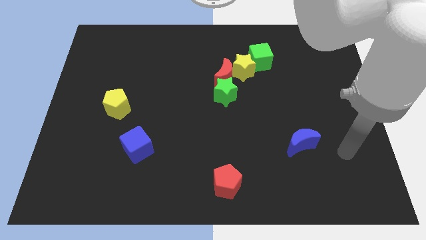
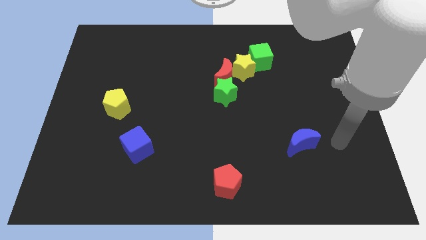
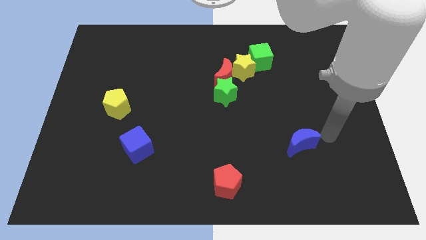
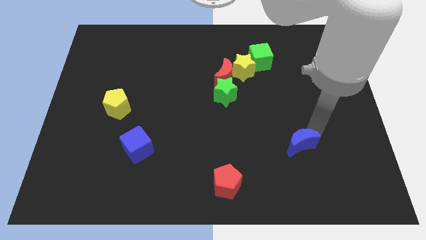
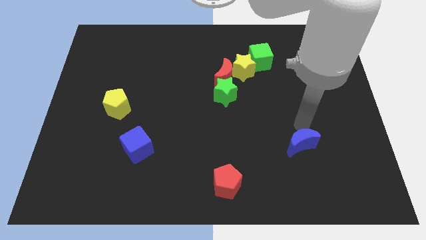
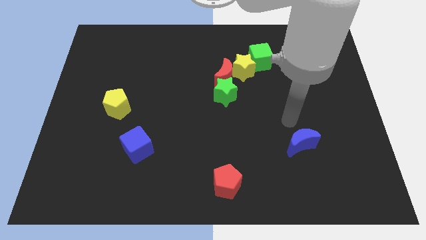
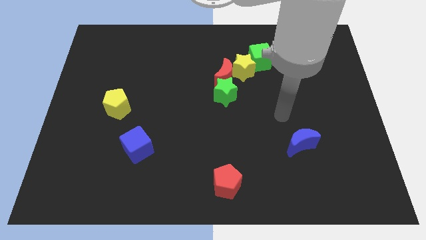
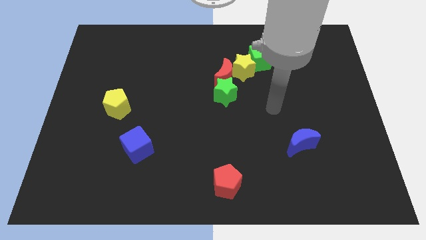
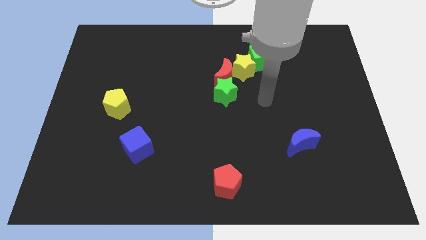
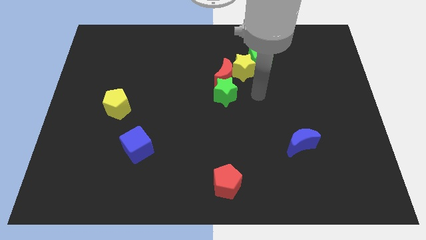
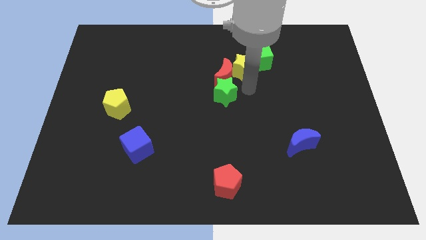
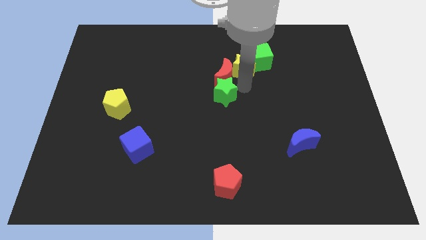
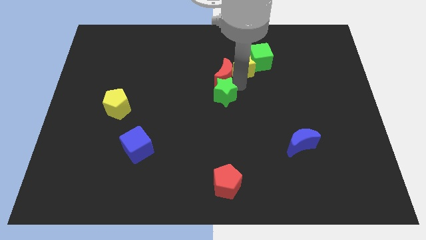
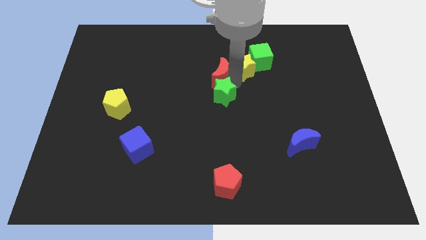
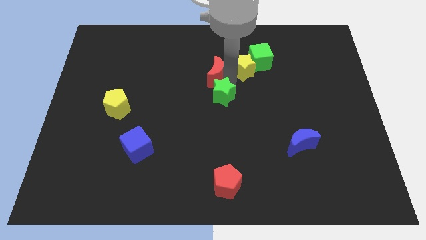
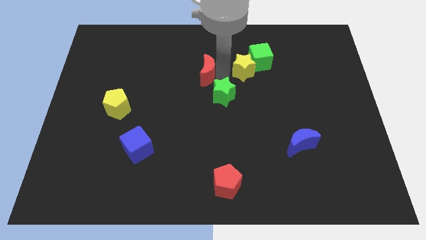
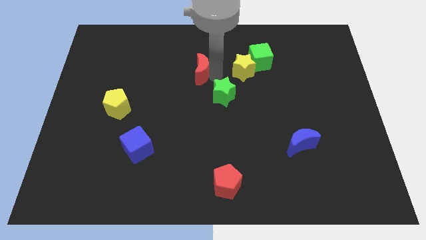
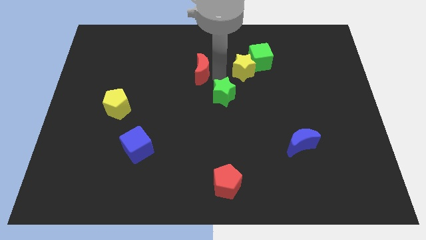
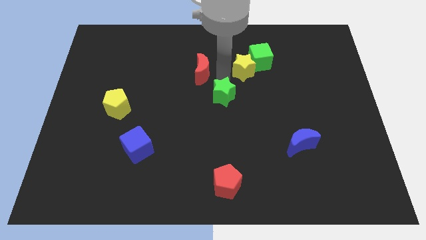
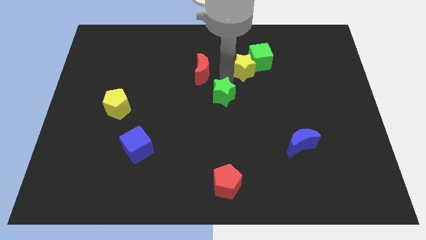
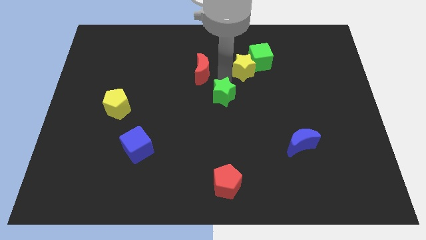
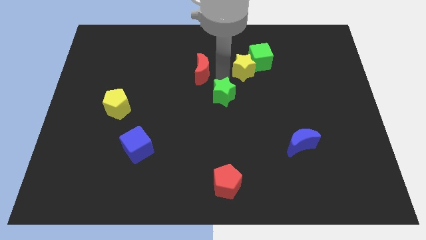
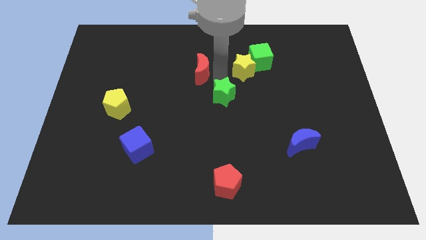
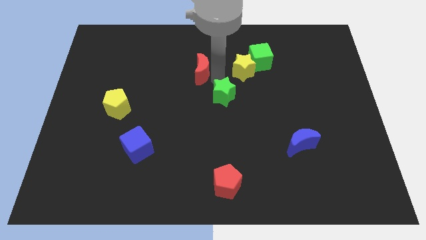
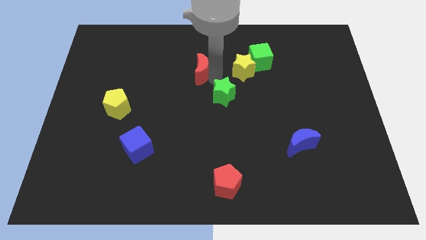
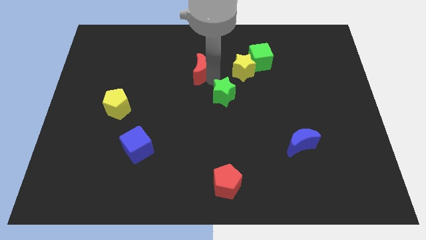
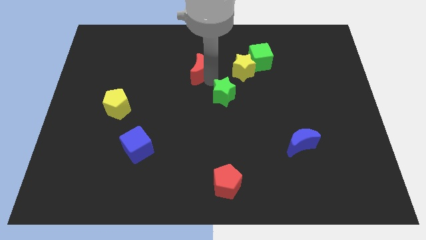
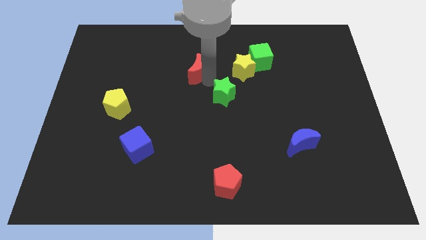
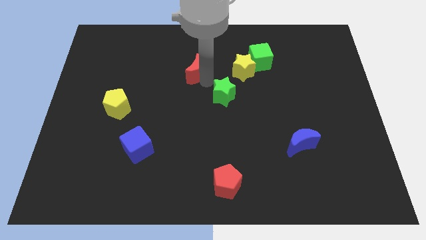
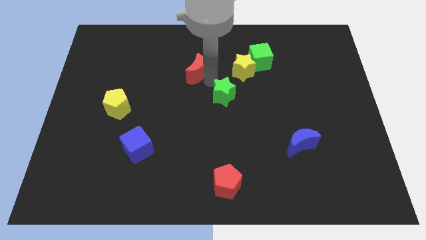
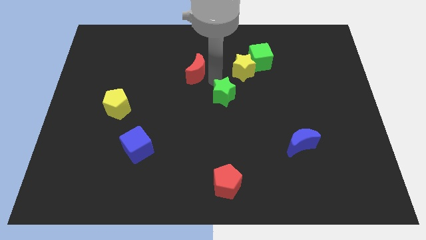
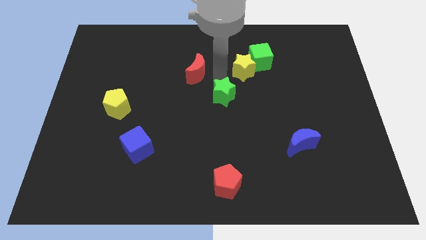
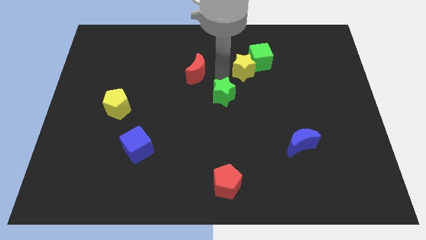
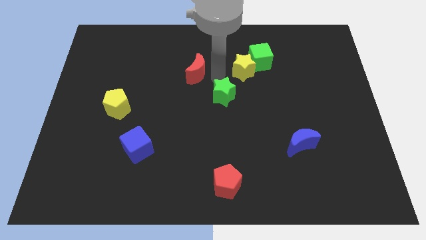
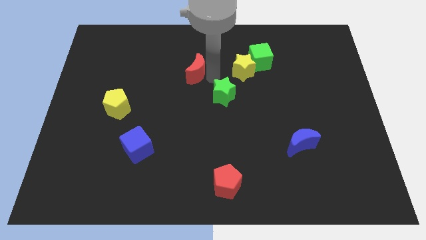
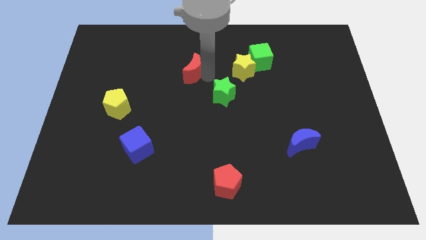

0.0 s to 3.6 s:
pull the red moon apart from the green star and yellow star

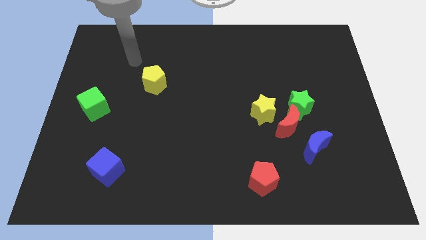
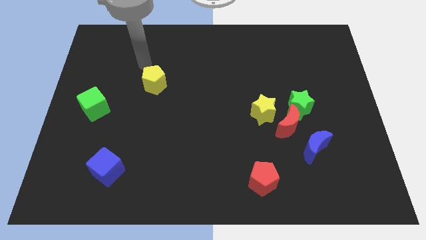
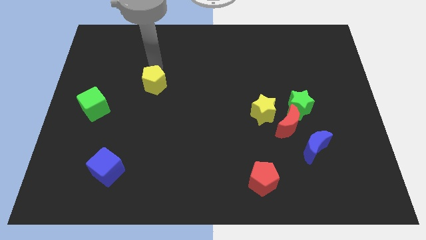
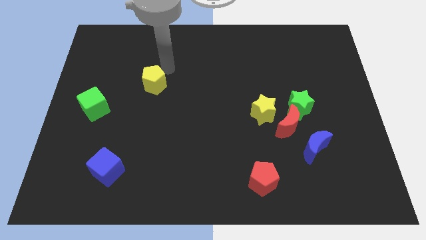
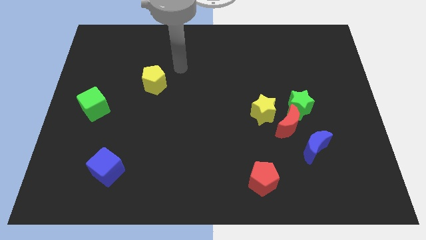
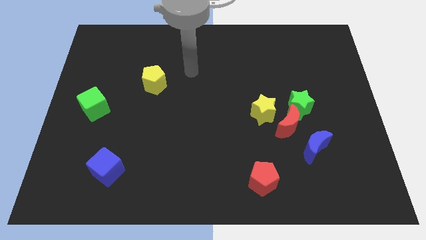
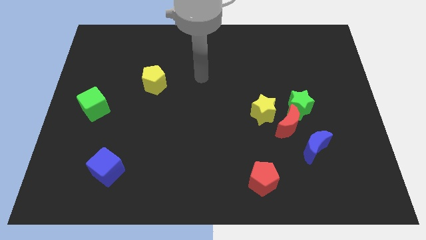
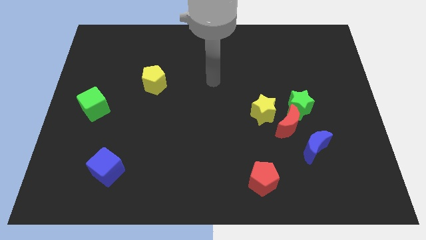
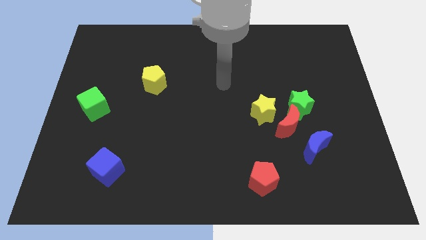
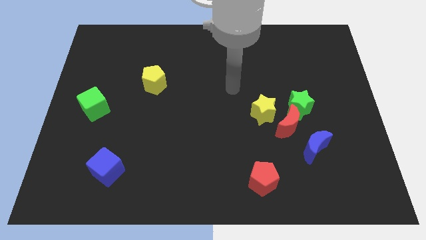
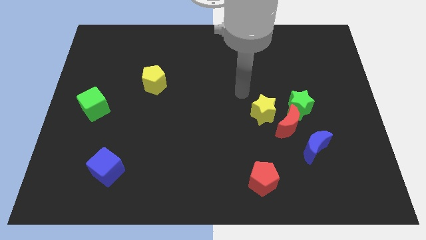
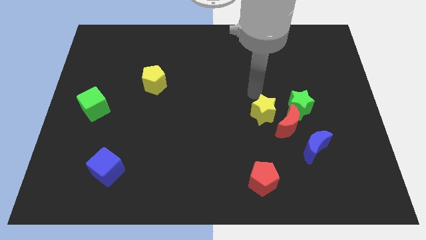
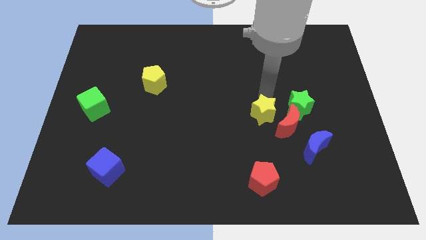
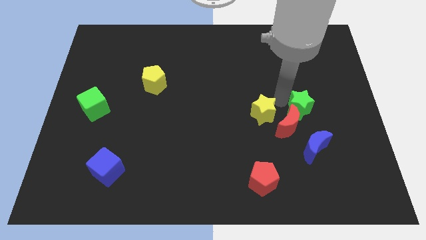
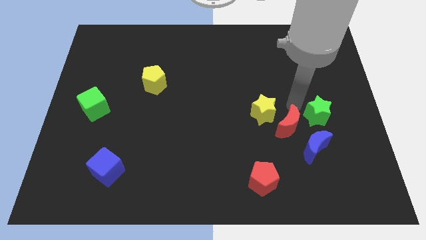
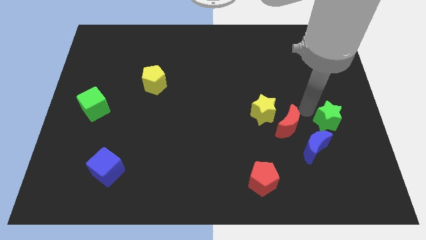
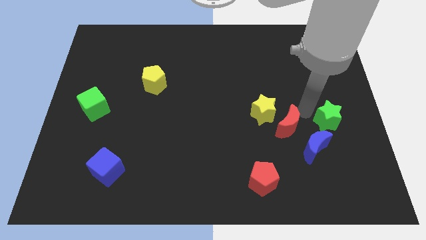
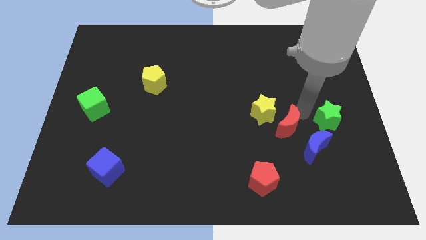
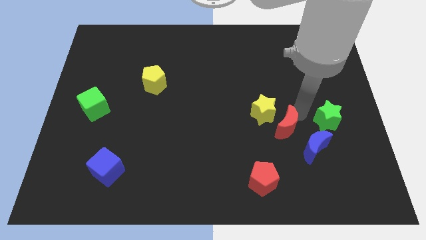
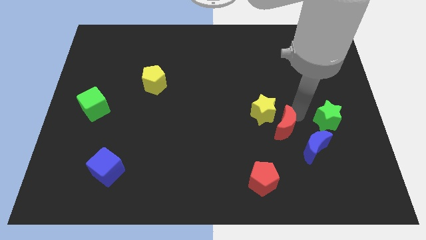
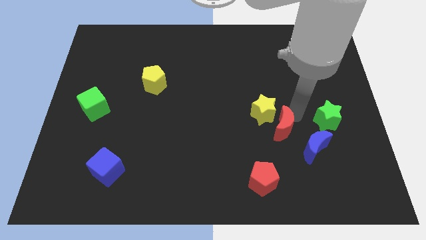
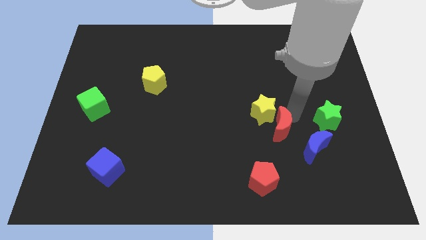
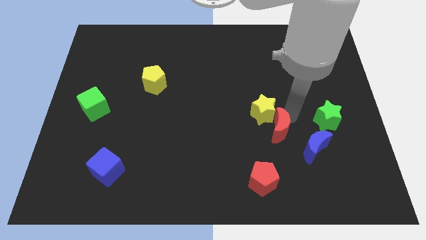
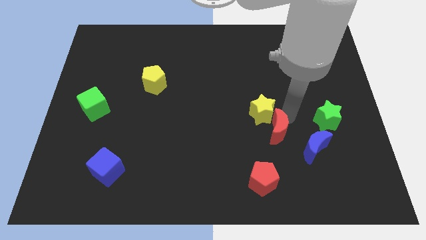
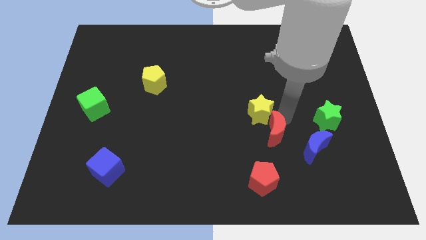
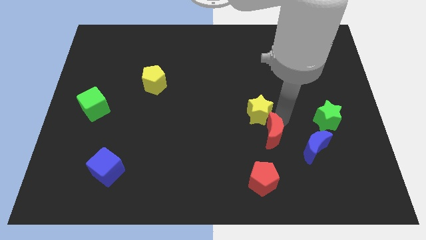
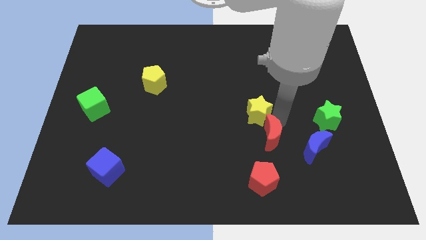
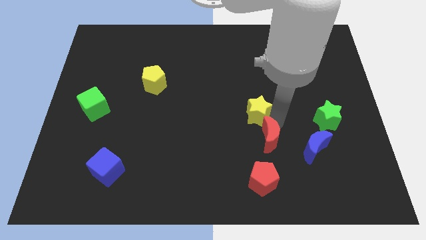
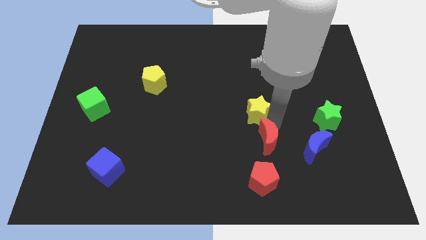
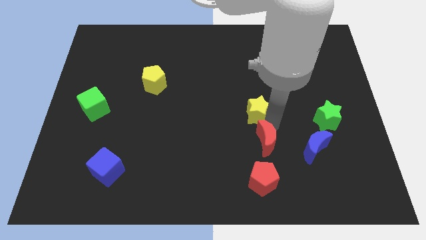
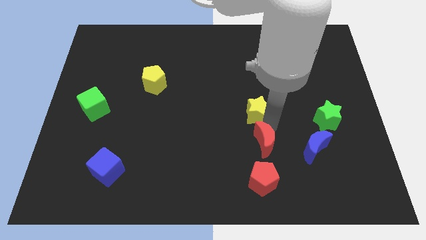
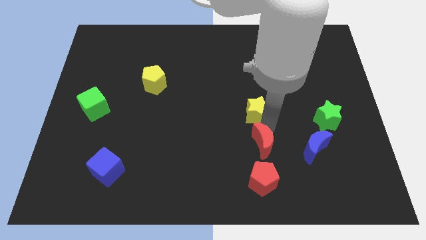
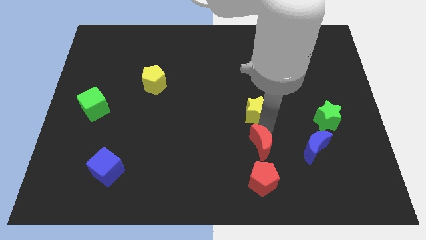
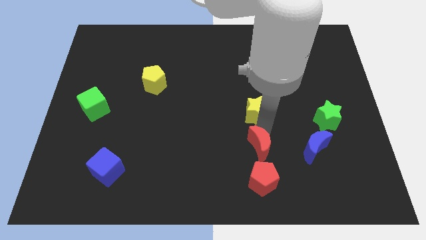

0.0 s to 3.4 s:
separate the red moon from the group

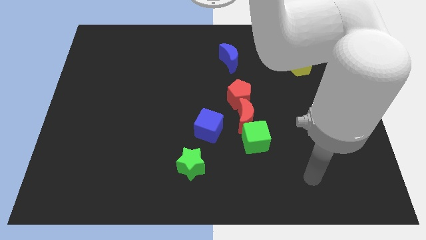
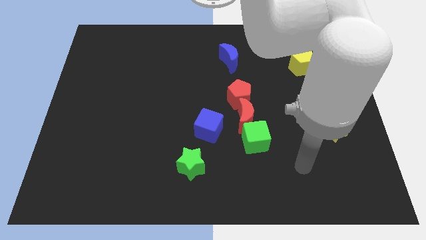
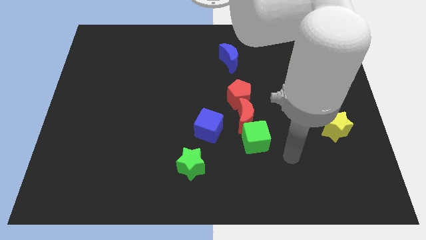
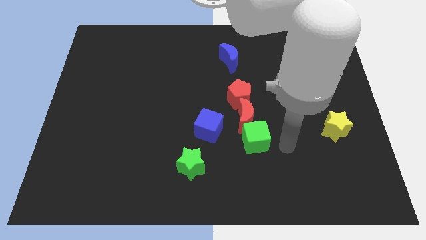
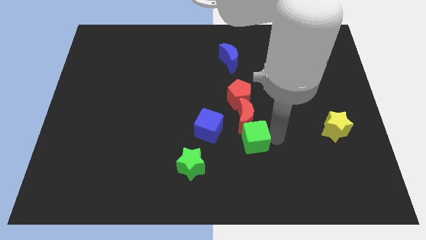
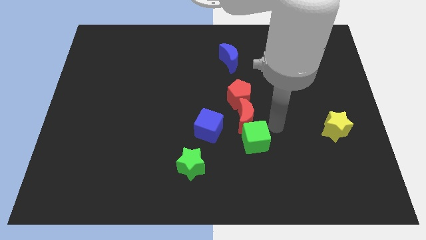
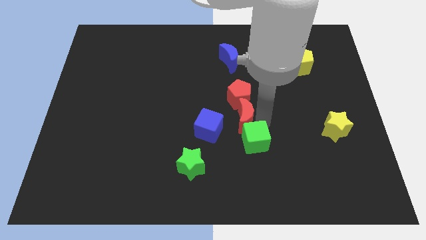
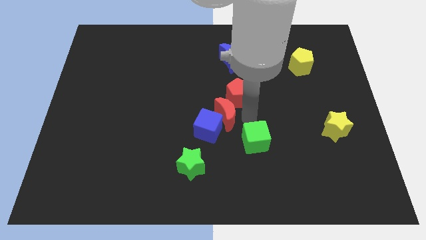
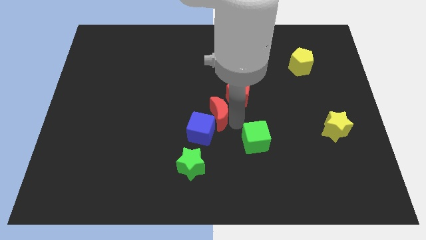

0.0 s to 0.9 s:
pull the green cube apart from the red moon

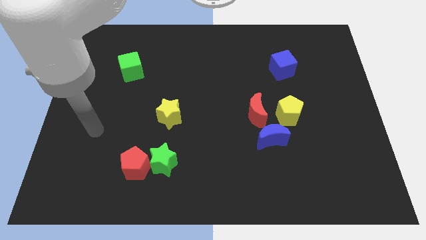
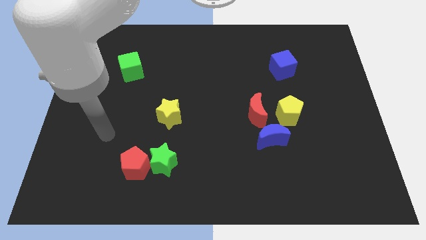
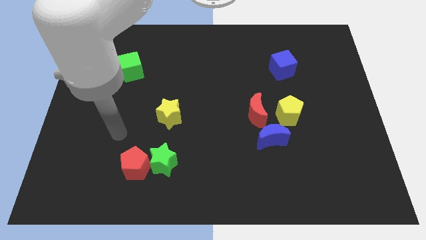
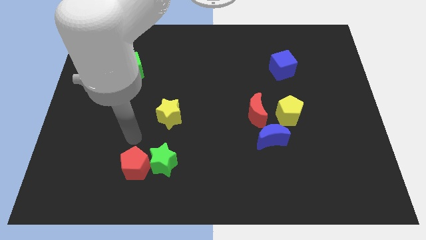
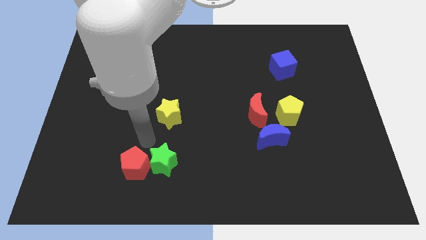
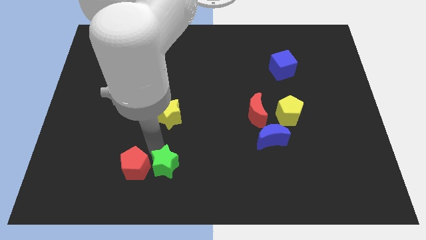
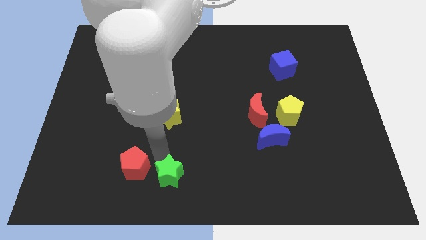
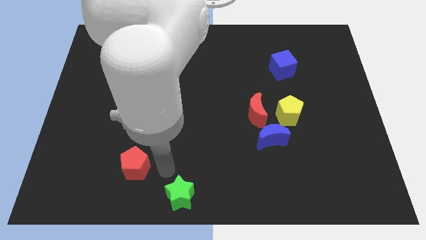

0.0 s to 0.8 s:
separate the red pentagon from the green star
